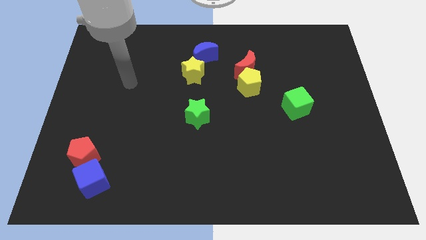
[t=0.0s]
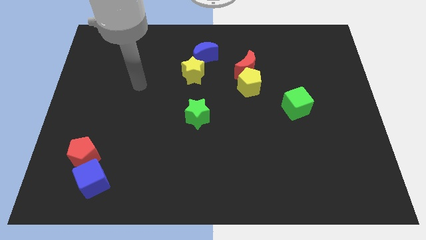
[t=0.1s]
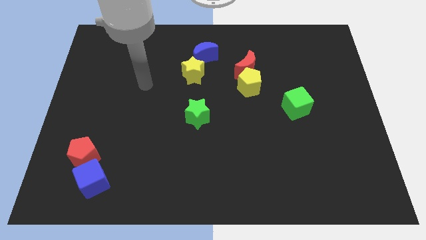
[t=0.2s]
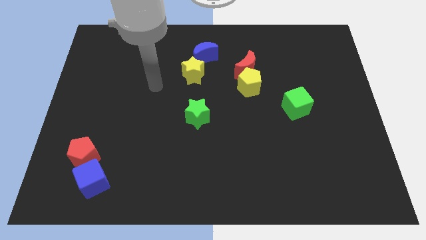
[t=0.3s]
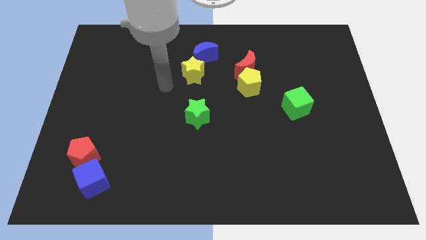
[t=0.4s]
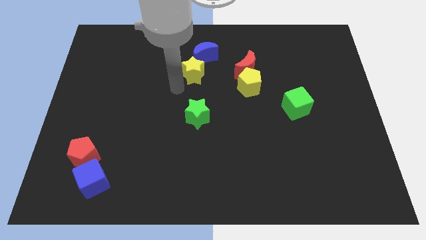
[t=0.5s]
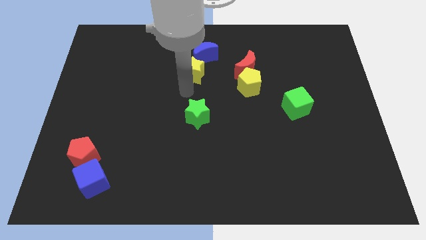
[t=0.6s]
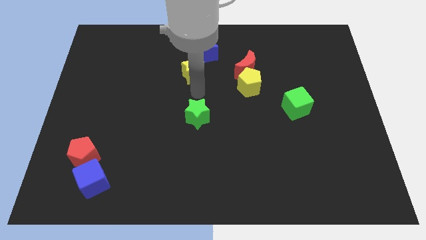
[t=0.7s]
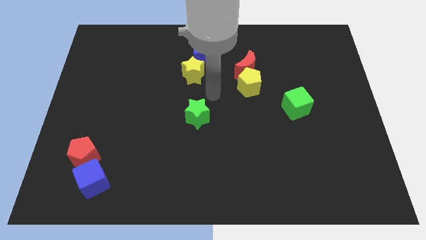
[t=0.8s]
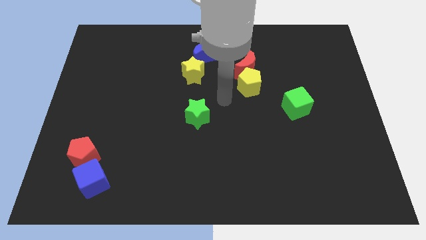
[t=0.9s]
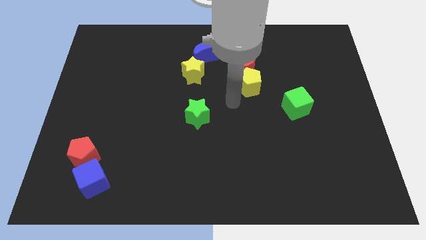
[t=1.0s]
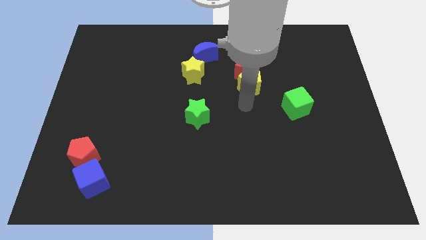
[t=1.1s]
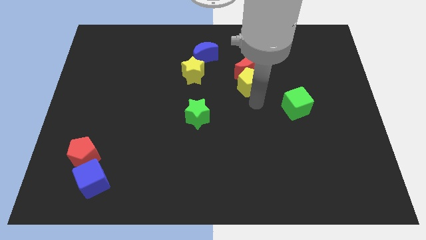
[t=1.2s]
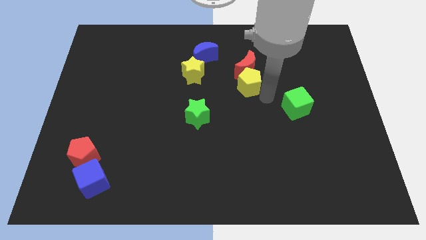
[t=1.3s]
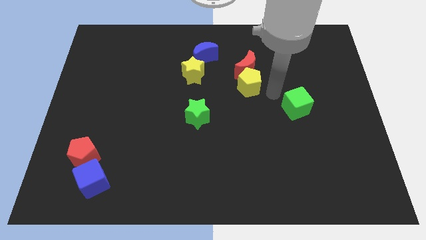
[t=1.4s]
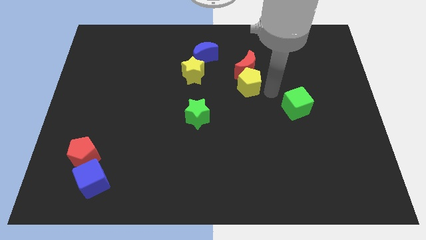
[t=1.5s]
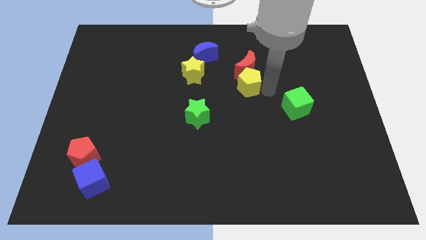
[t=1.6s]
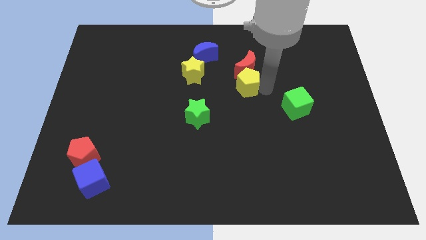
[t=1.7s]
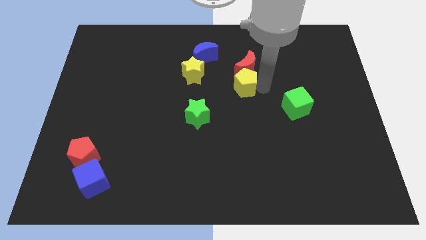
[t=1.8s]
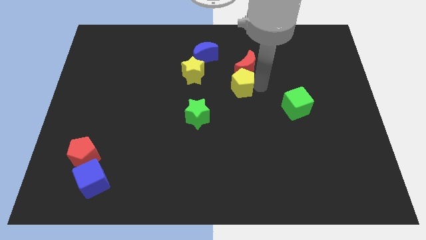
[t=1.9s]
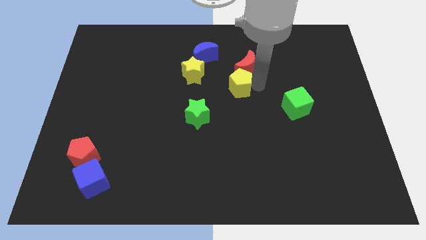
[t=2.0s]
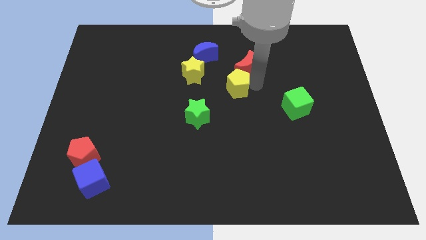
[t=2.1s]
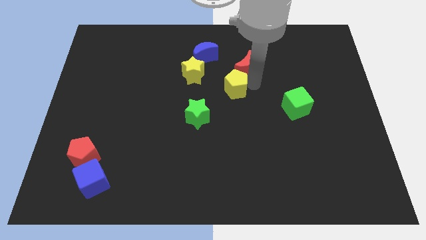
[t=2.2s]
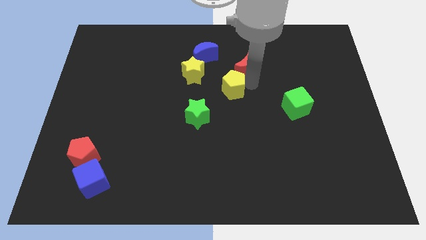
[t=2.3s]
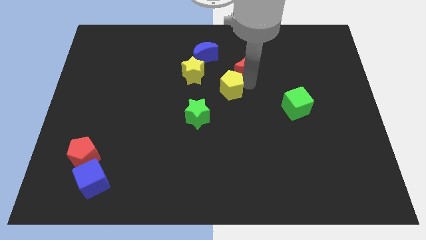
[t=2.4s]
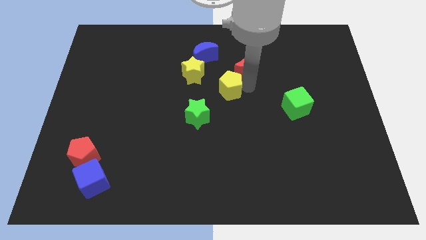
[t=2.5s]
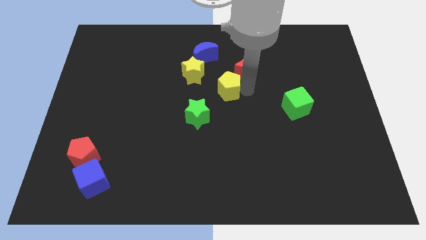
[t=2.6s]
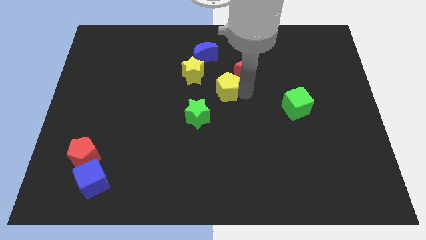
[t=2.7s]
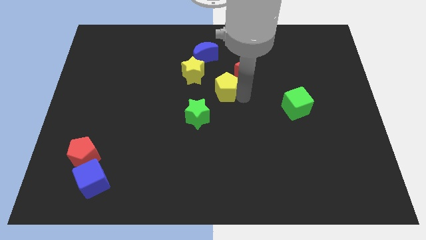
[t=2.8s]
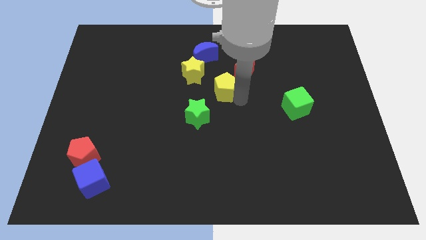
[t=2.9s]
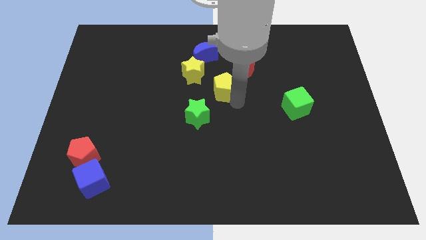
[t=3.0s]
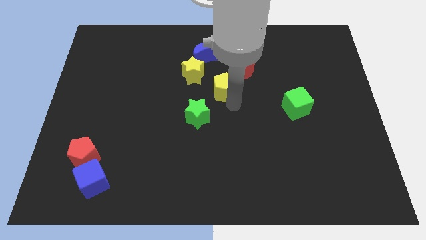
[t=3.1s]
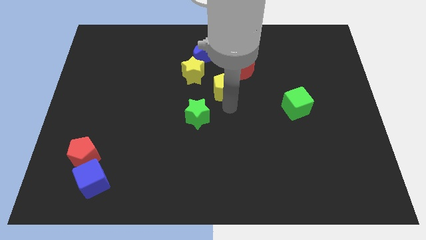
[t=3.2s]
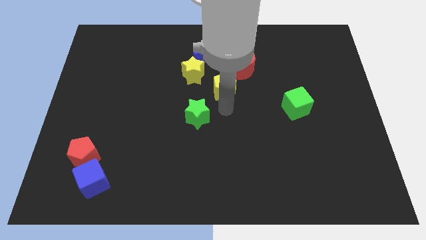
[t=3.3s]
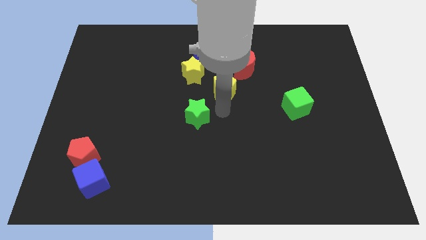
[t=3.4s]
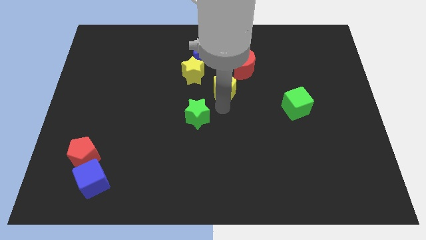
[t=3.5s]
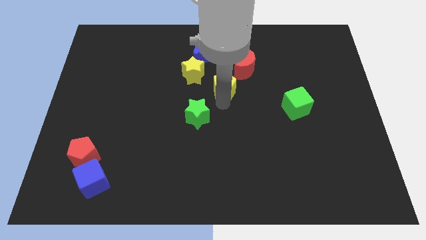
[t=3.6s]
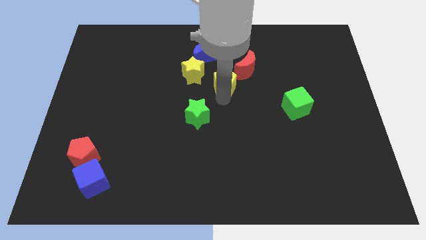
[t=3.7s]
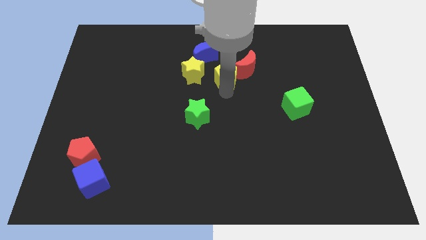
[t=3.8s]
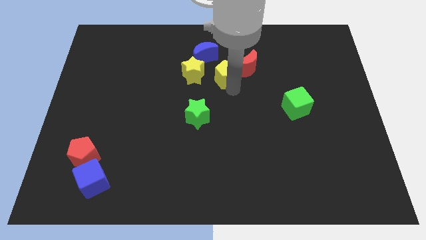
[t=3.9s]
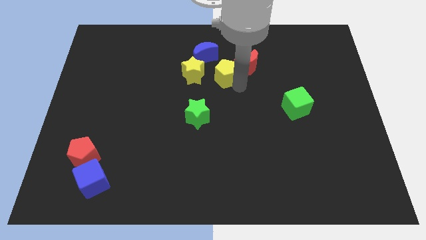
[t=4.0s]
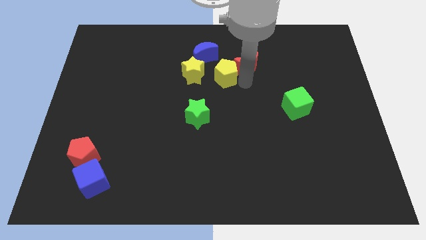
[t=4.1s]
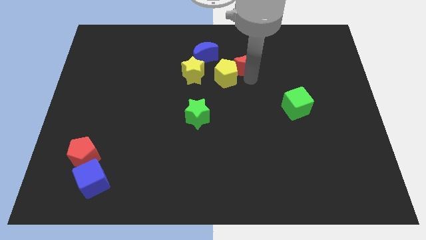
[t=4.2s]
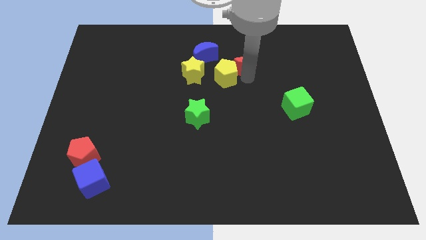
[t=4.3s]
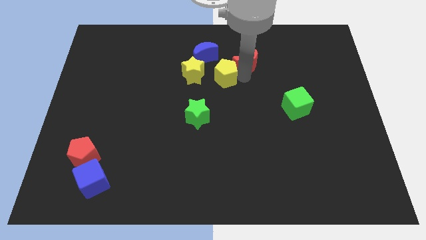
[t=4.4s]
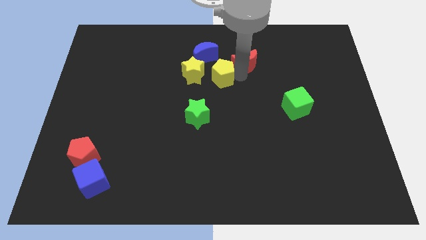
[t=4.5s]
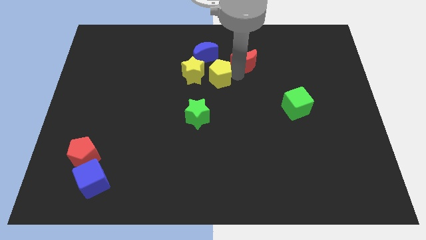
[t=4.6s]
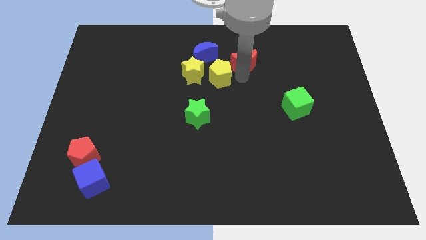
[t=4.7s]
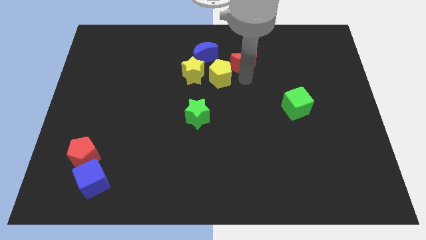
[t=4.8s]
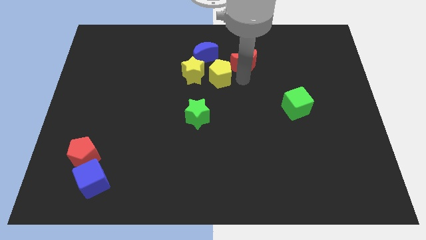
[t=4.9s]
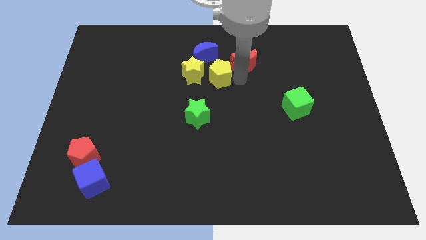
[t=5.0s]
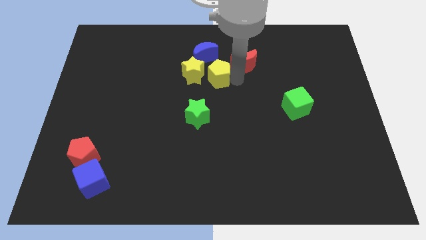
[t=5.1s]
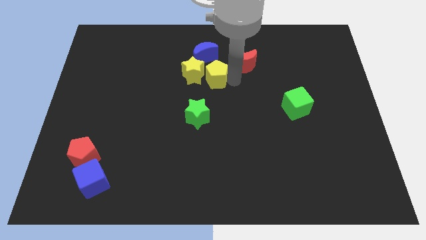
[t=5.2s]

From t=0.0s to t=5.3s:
slide the yellow pentagon next to the yellow star

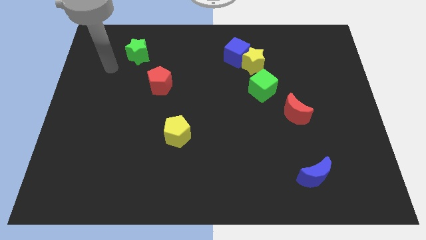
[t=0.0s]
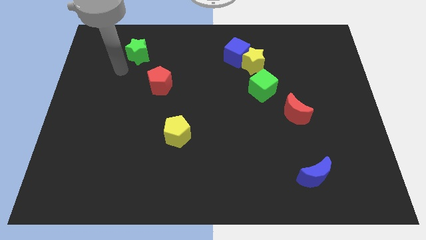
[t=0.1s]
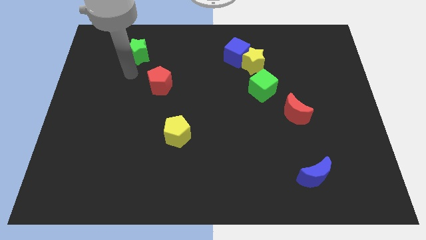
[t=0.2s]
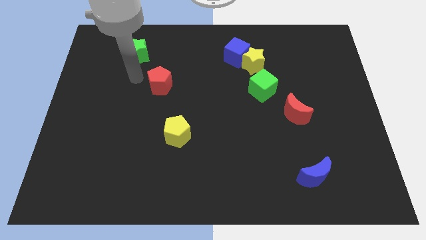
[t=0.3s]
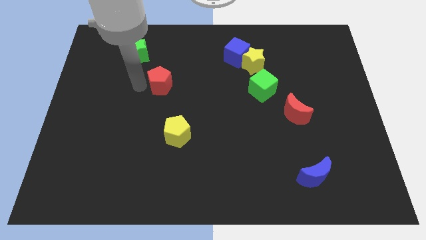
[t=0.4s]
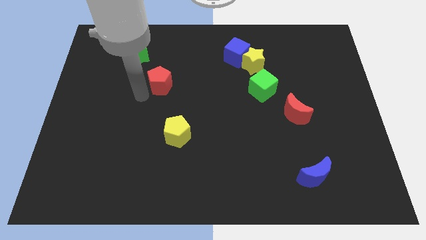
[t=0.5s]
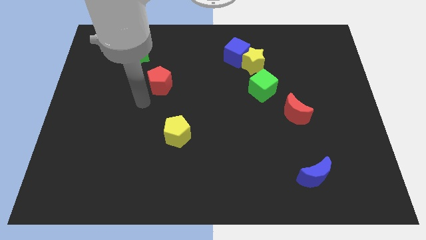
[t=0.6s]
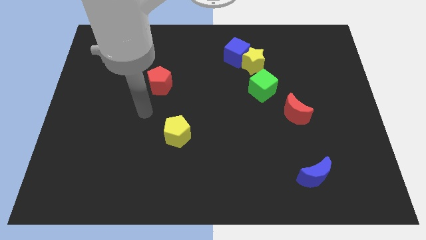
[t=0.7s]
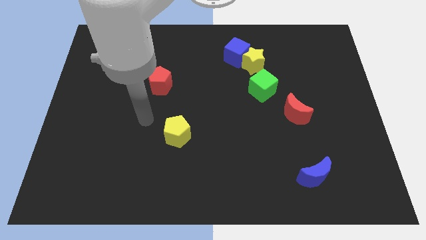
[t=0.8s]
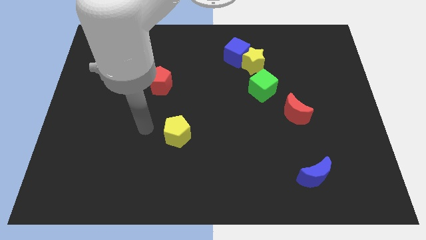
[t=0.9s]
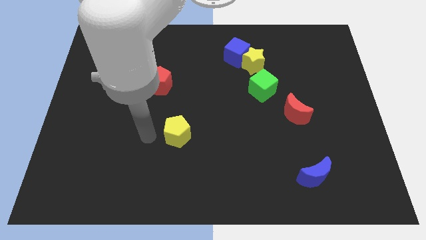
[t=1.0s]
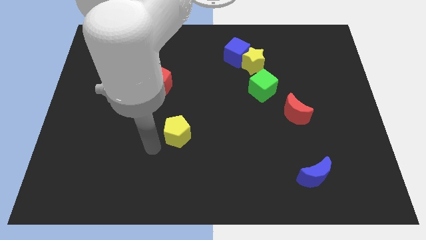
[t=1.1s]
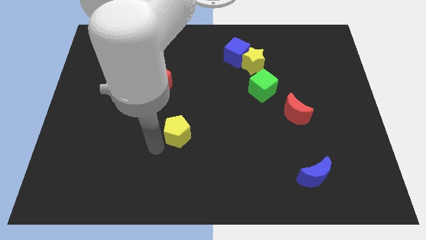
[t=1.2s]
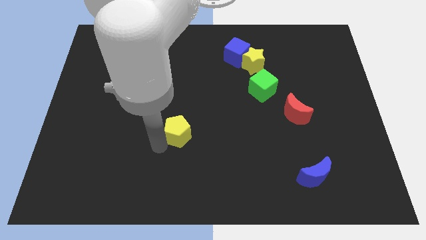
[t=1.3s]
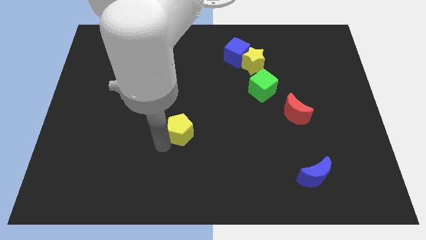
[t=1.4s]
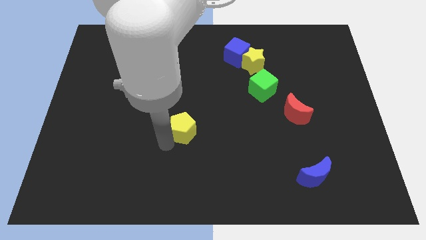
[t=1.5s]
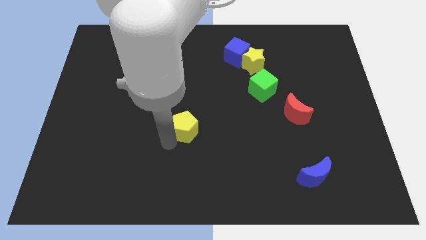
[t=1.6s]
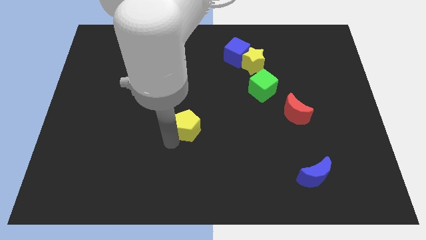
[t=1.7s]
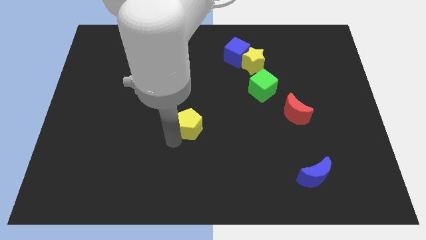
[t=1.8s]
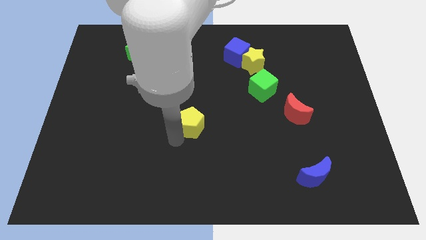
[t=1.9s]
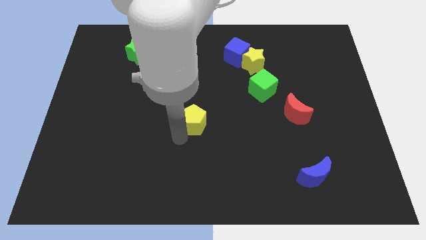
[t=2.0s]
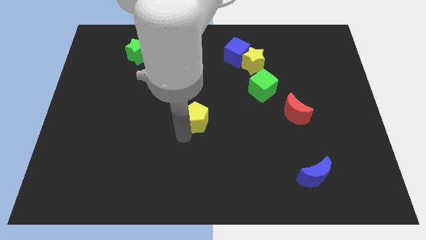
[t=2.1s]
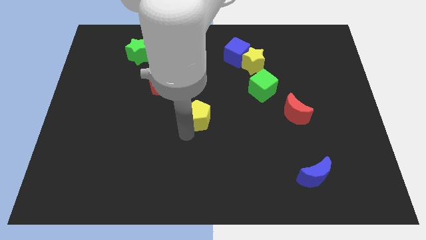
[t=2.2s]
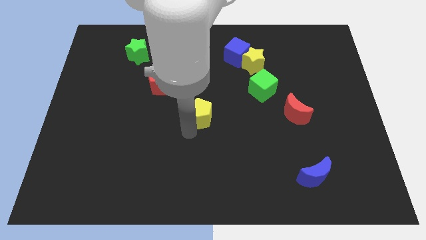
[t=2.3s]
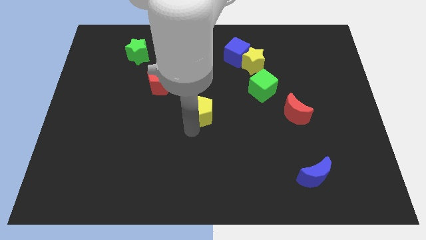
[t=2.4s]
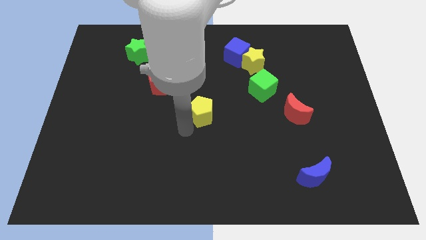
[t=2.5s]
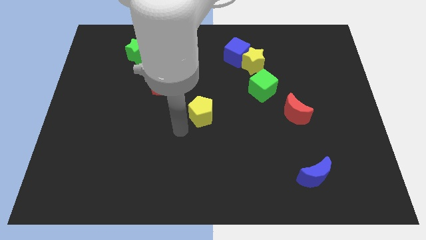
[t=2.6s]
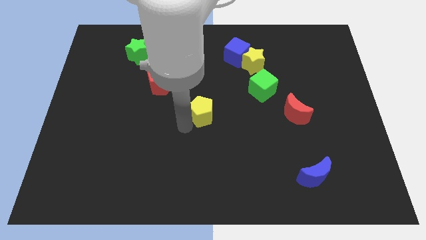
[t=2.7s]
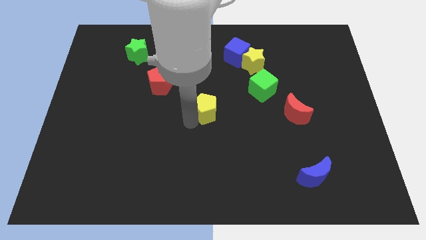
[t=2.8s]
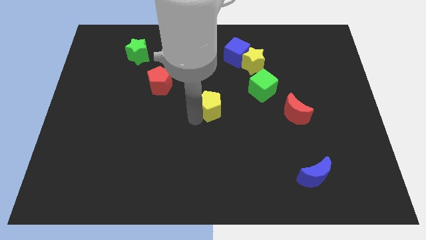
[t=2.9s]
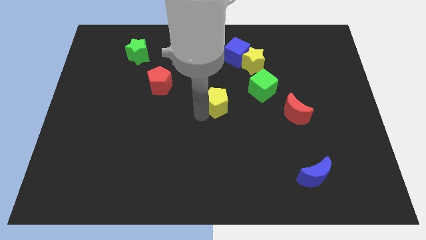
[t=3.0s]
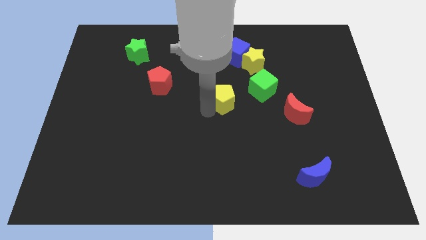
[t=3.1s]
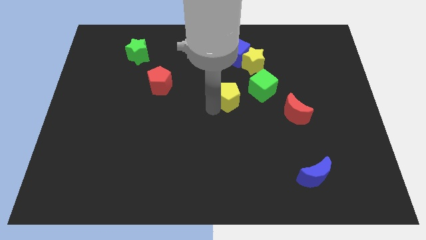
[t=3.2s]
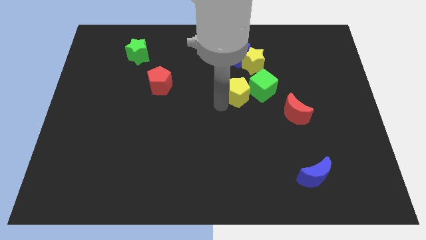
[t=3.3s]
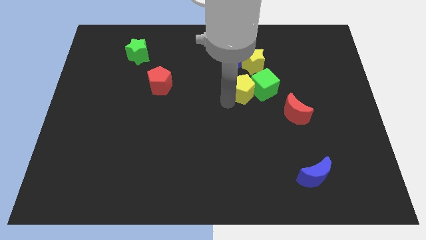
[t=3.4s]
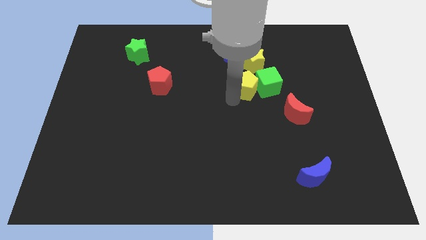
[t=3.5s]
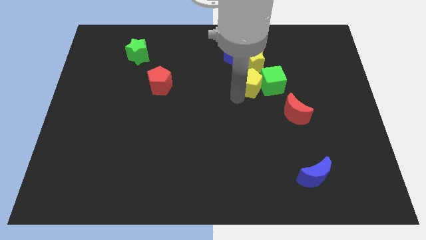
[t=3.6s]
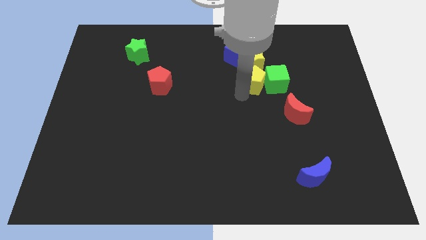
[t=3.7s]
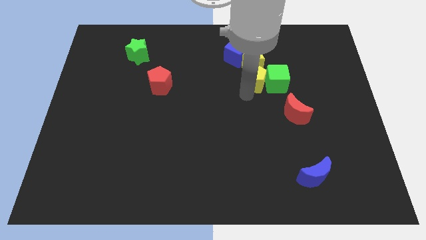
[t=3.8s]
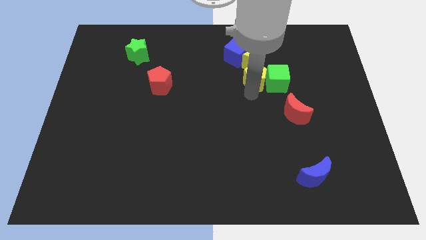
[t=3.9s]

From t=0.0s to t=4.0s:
put the yellow pentagon close to the yellow star
